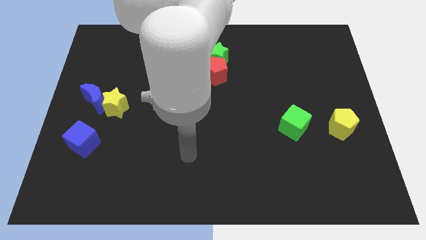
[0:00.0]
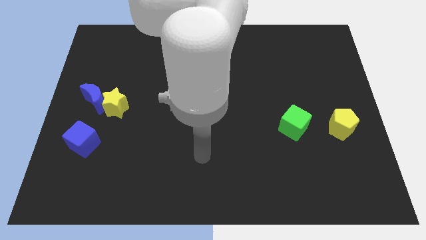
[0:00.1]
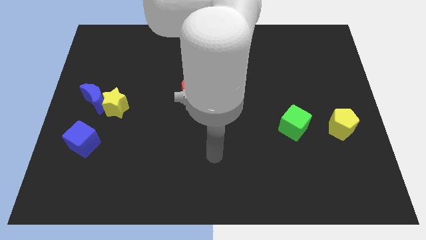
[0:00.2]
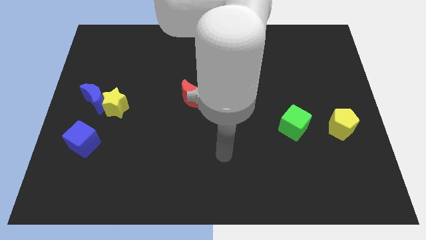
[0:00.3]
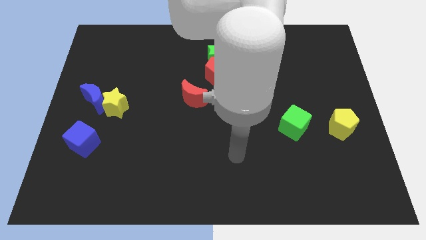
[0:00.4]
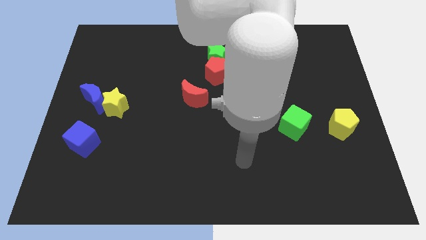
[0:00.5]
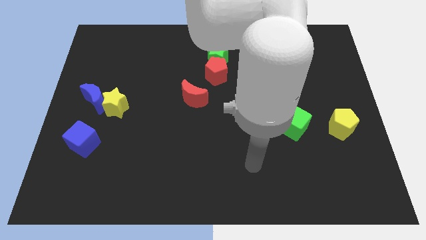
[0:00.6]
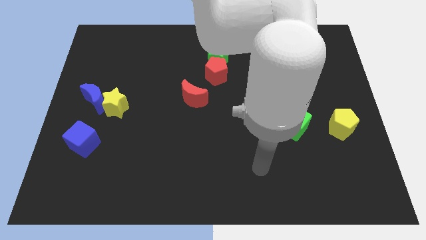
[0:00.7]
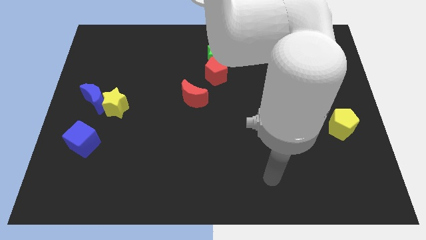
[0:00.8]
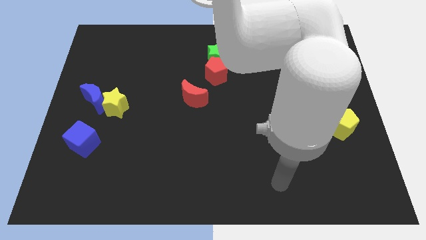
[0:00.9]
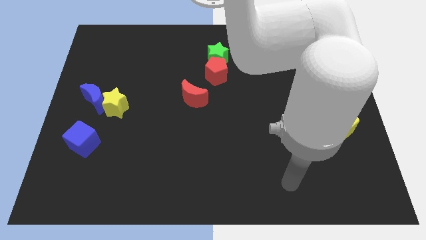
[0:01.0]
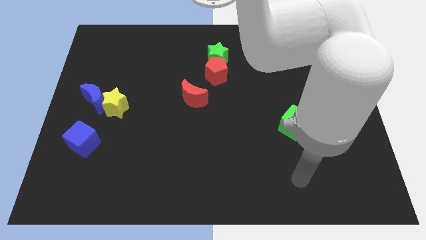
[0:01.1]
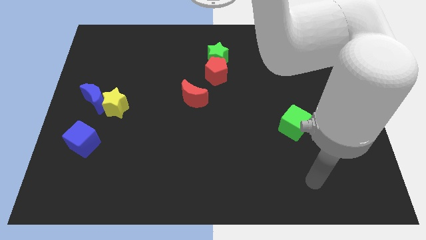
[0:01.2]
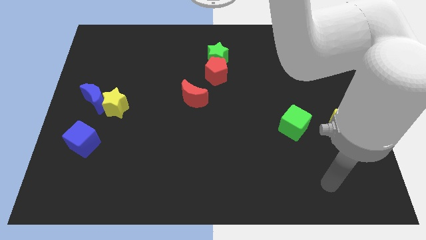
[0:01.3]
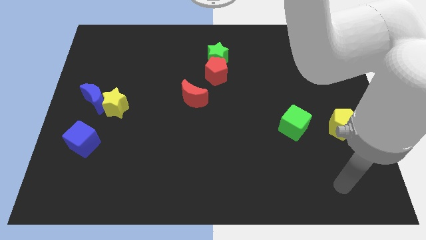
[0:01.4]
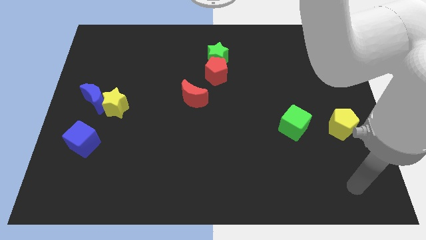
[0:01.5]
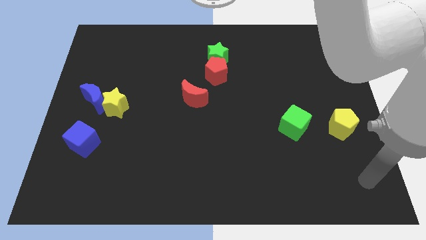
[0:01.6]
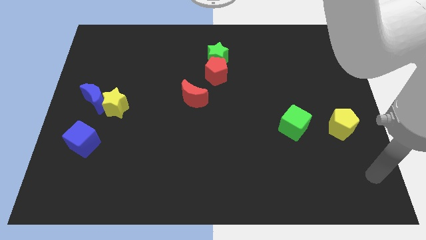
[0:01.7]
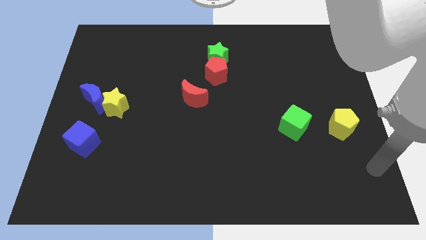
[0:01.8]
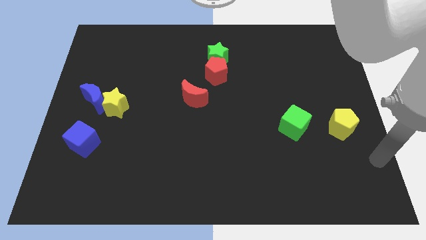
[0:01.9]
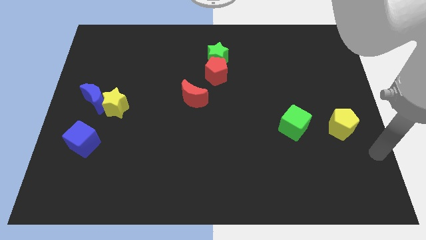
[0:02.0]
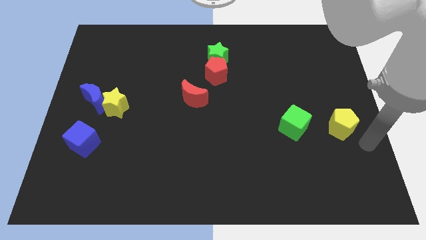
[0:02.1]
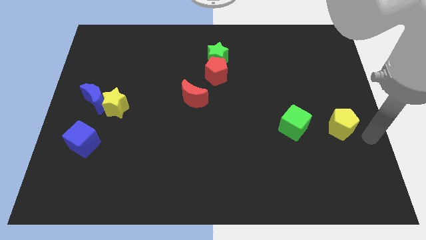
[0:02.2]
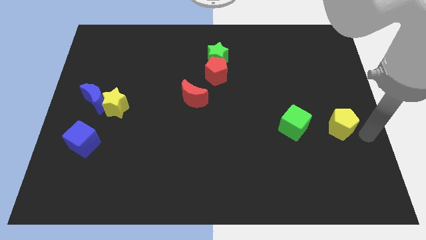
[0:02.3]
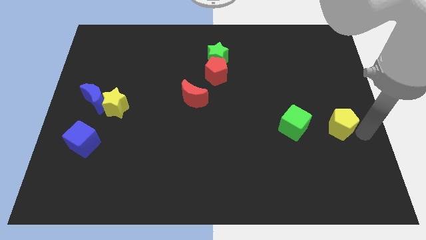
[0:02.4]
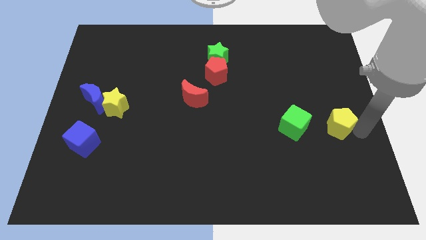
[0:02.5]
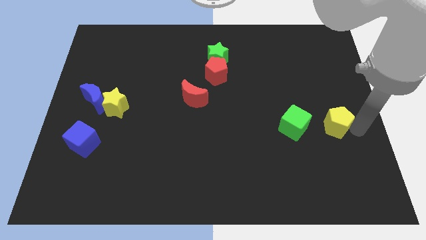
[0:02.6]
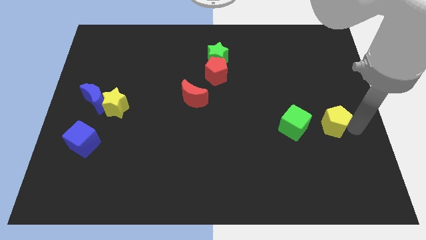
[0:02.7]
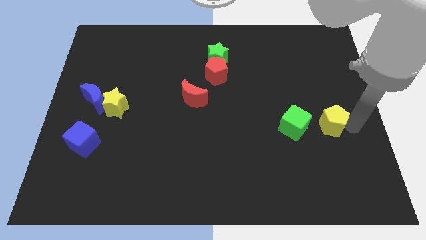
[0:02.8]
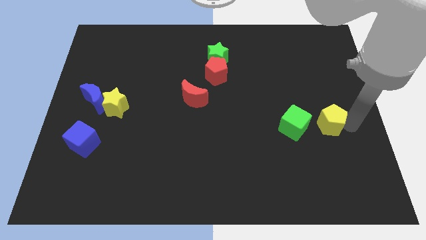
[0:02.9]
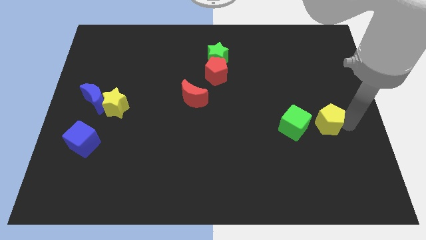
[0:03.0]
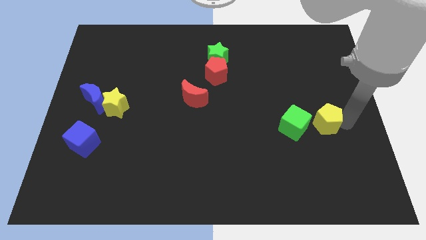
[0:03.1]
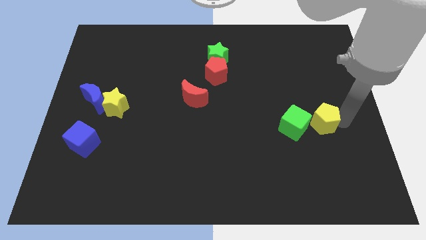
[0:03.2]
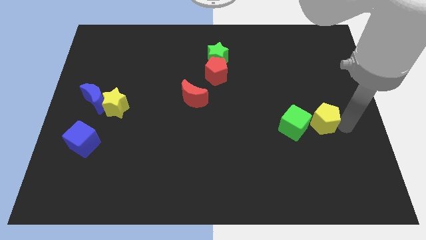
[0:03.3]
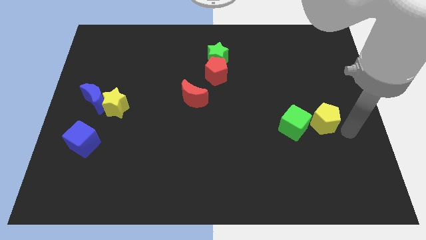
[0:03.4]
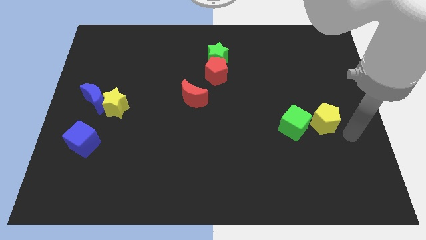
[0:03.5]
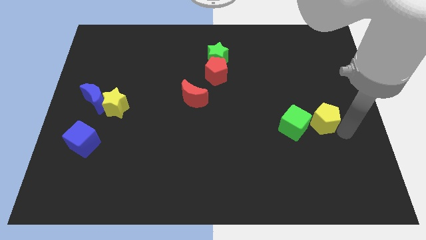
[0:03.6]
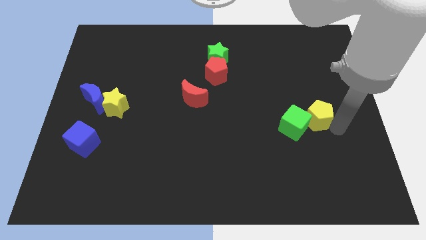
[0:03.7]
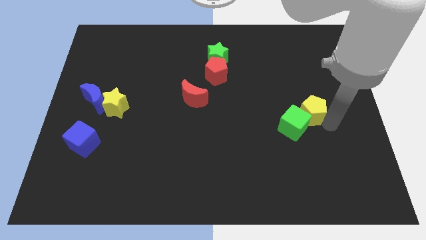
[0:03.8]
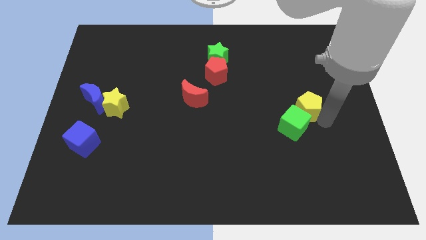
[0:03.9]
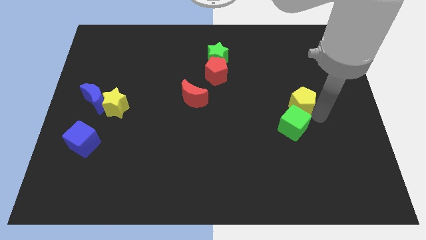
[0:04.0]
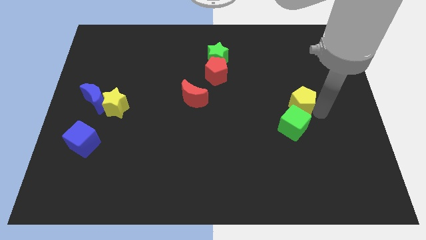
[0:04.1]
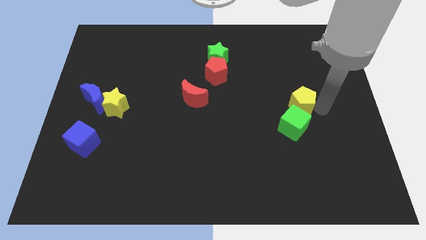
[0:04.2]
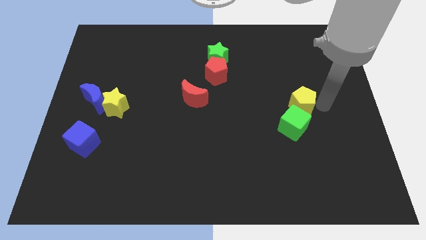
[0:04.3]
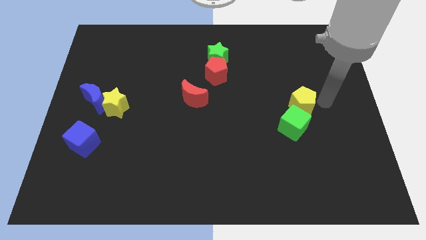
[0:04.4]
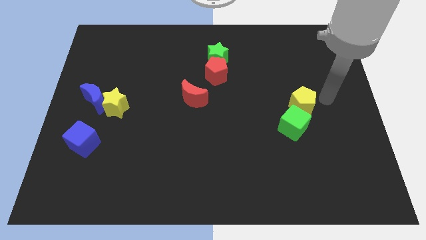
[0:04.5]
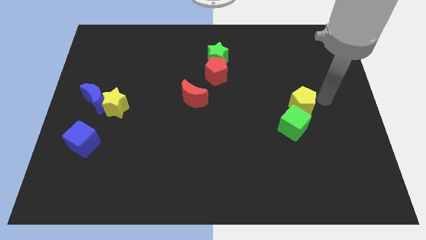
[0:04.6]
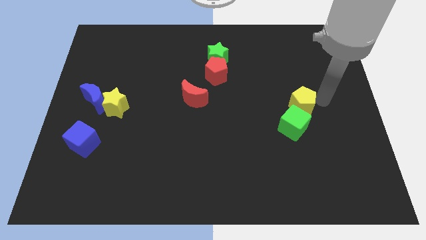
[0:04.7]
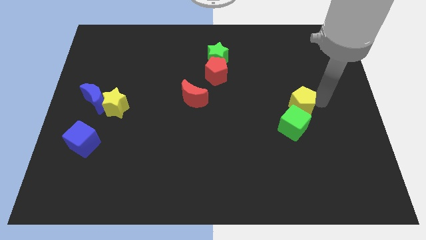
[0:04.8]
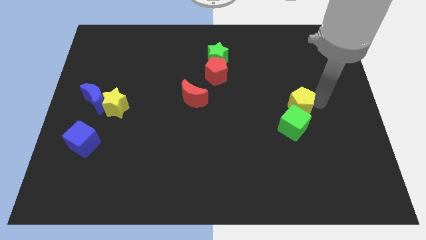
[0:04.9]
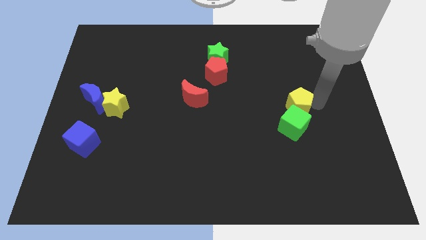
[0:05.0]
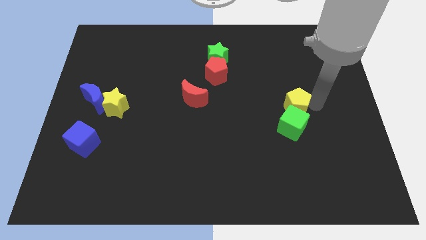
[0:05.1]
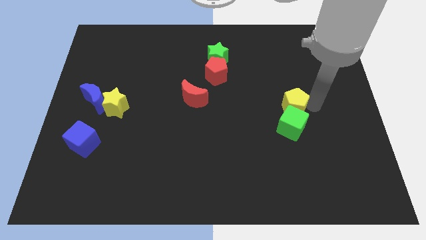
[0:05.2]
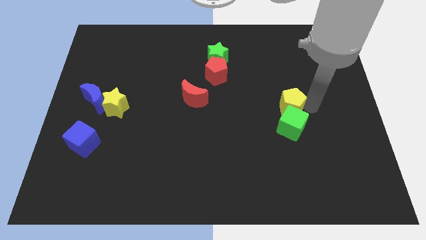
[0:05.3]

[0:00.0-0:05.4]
slide the yellow pentagon to the top left side of the green cube

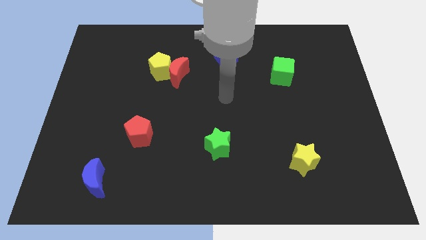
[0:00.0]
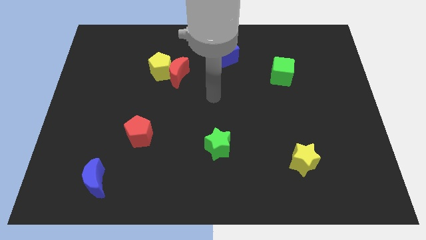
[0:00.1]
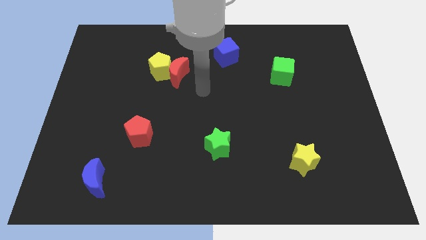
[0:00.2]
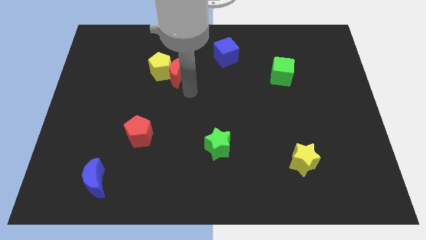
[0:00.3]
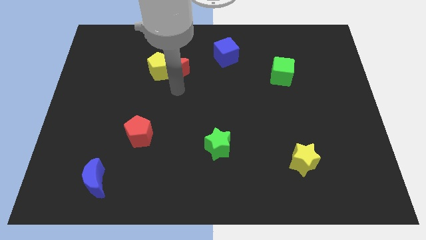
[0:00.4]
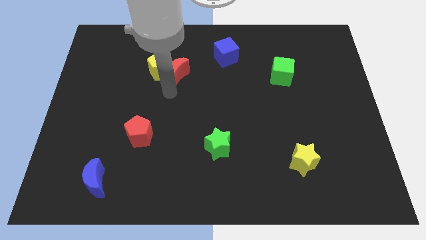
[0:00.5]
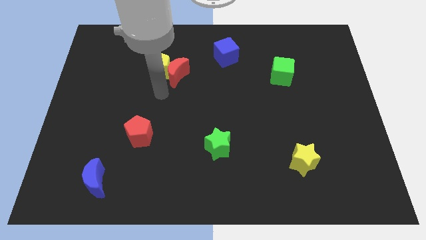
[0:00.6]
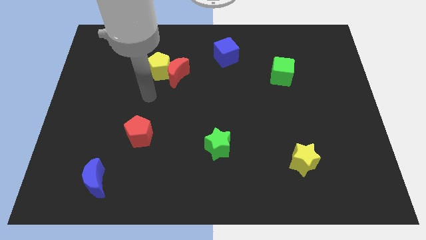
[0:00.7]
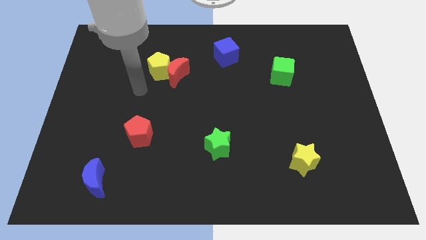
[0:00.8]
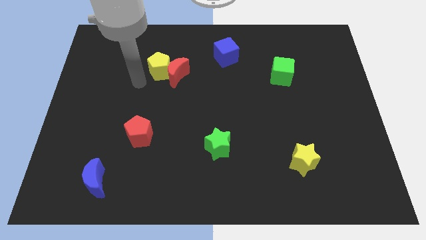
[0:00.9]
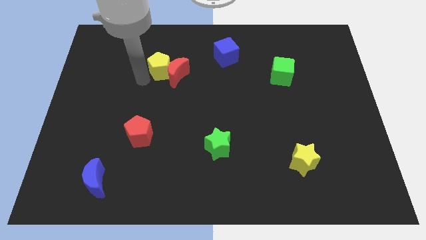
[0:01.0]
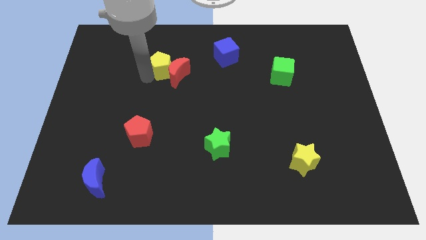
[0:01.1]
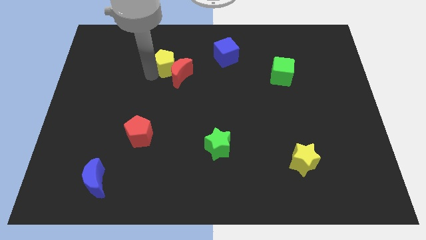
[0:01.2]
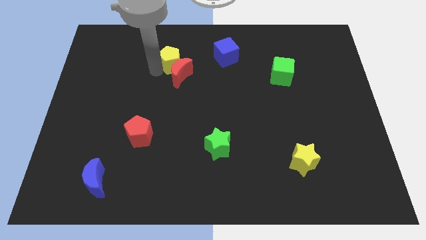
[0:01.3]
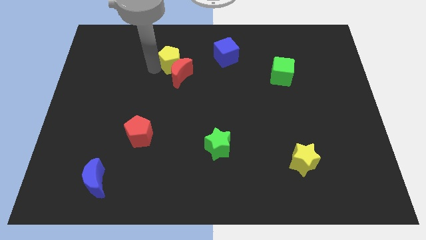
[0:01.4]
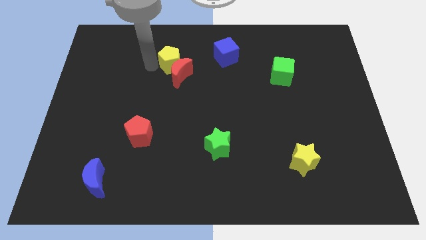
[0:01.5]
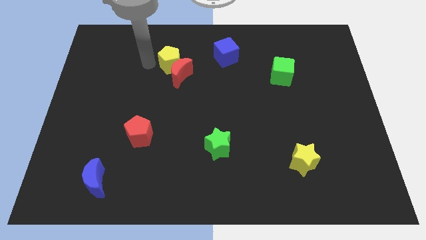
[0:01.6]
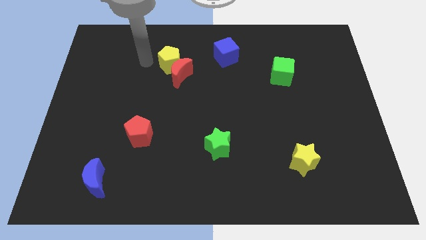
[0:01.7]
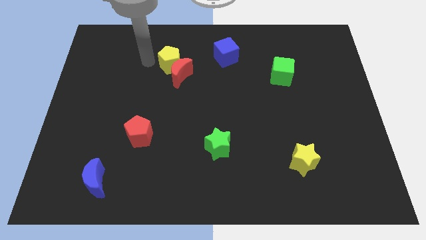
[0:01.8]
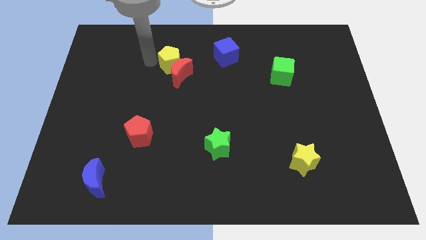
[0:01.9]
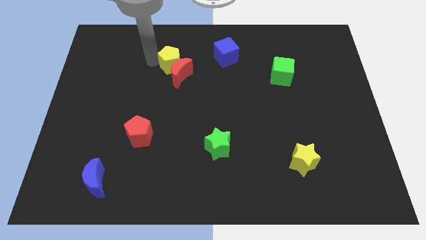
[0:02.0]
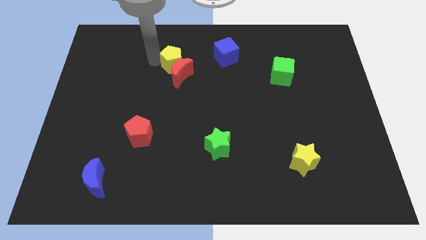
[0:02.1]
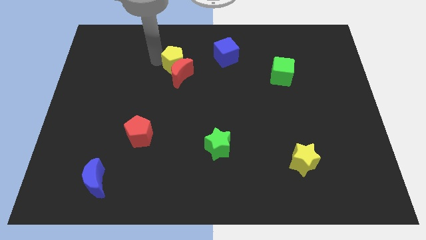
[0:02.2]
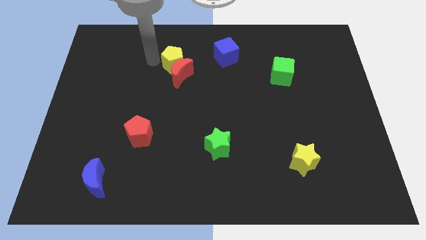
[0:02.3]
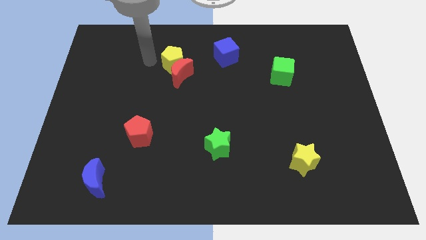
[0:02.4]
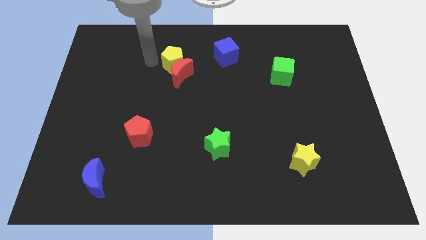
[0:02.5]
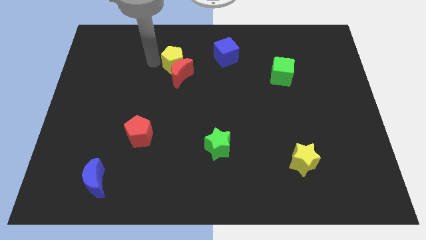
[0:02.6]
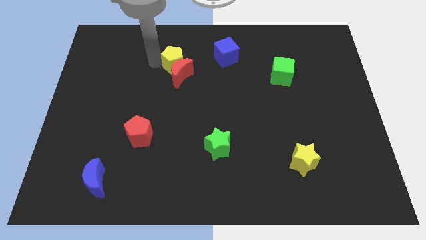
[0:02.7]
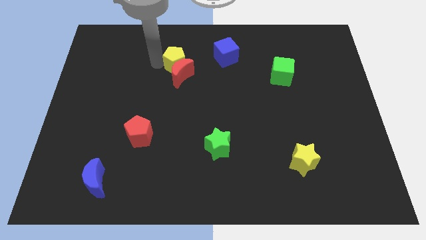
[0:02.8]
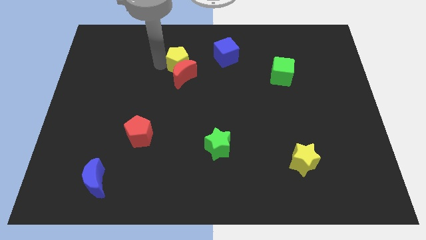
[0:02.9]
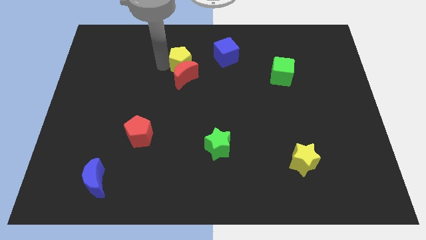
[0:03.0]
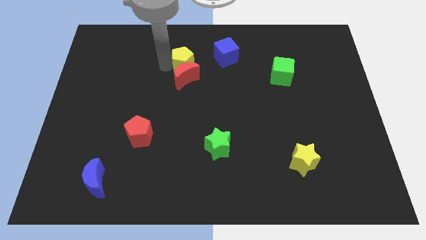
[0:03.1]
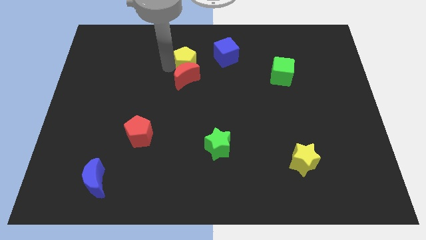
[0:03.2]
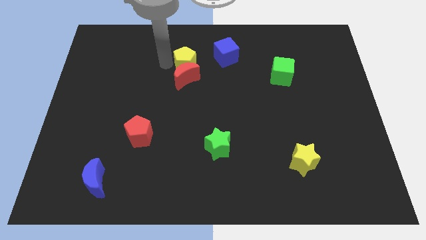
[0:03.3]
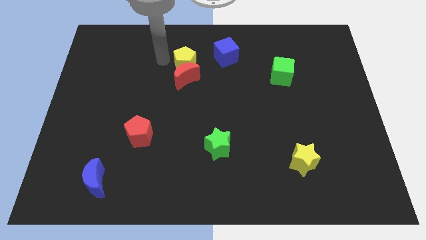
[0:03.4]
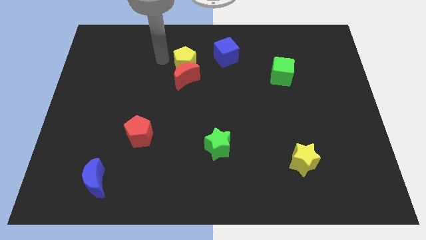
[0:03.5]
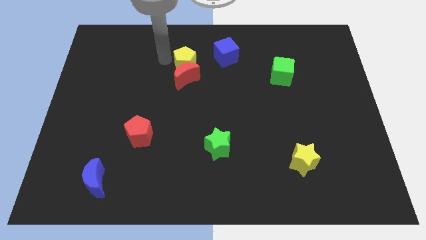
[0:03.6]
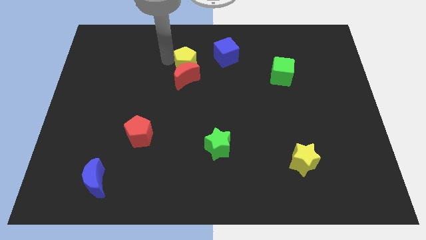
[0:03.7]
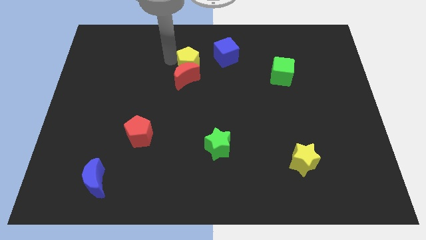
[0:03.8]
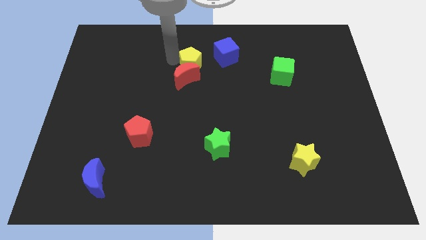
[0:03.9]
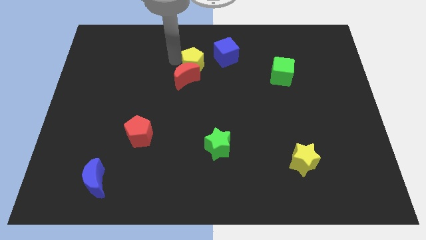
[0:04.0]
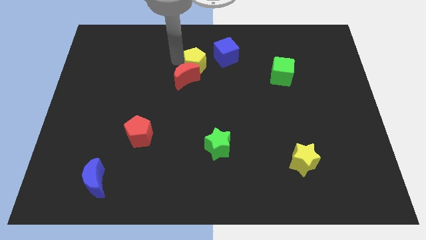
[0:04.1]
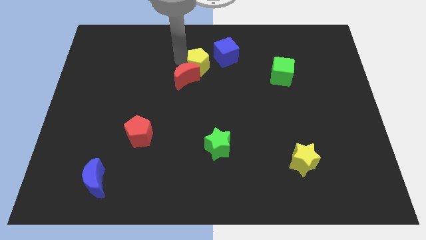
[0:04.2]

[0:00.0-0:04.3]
move the yellow pentagon right of the red moon
